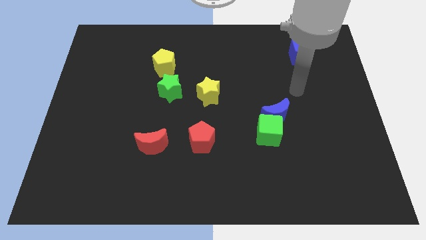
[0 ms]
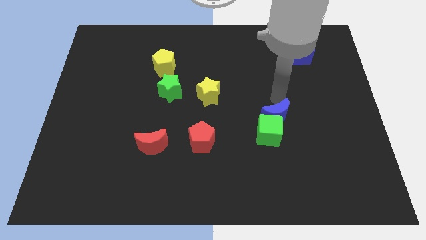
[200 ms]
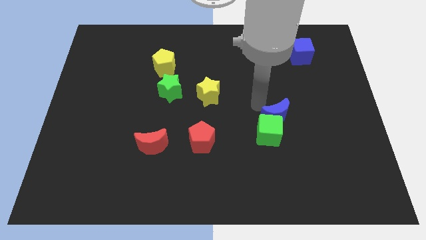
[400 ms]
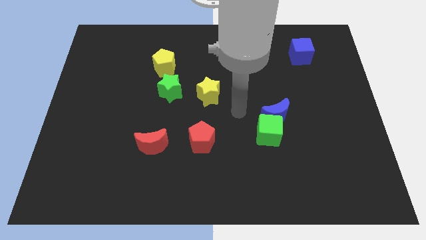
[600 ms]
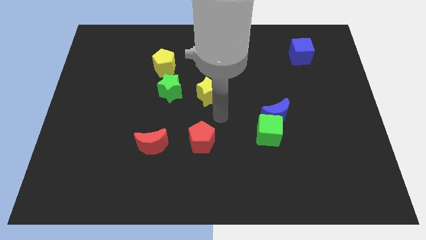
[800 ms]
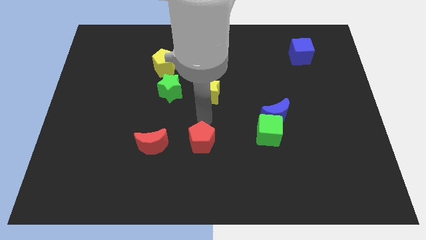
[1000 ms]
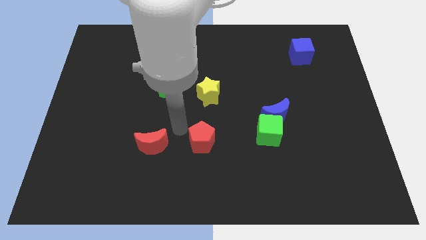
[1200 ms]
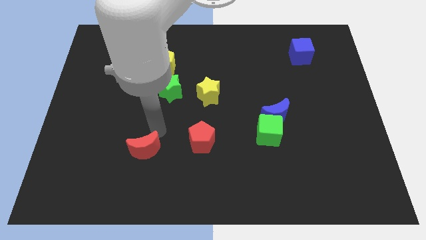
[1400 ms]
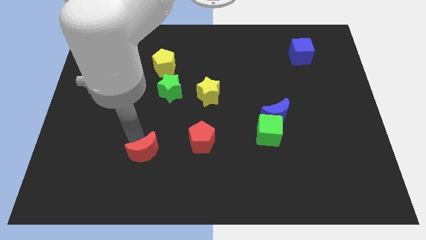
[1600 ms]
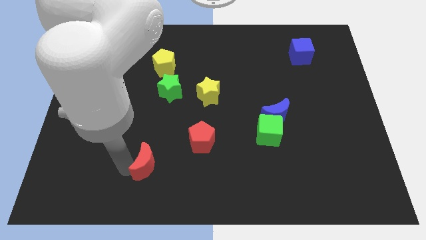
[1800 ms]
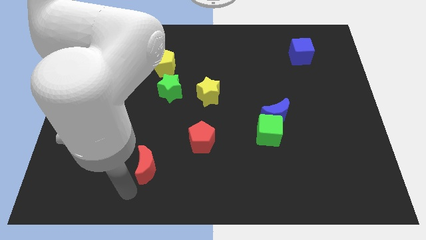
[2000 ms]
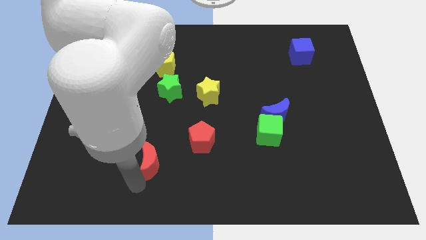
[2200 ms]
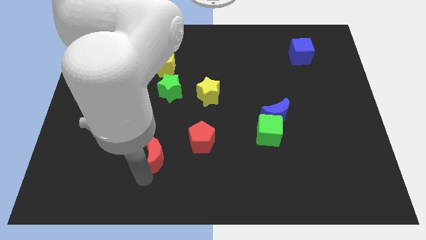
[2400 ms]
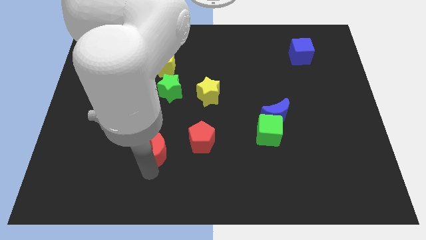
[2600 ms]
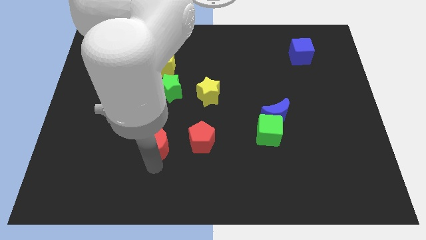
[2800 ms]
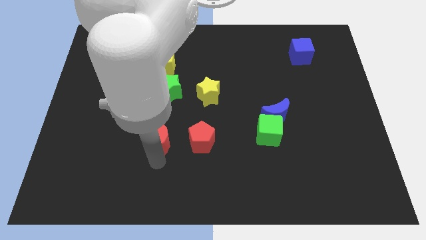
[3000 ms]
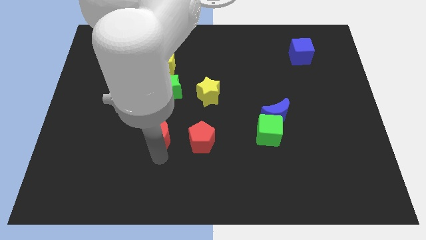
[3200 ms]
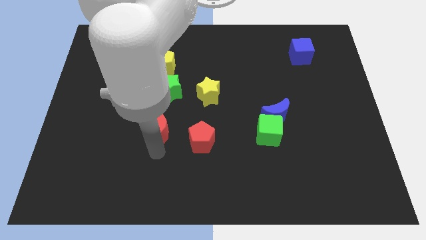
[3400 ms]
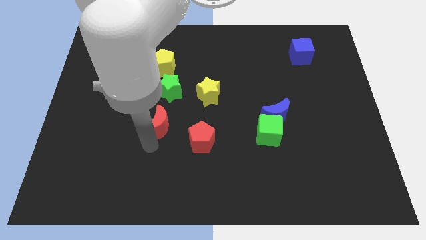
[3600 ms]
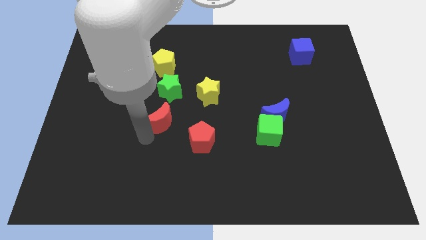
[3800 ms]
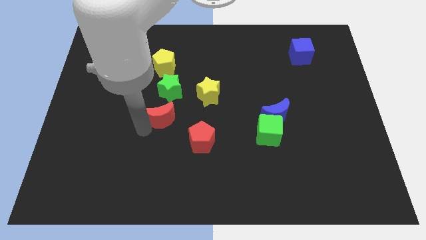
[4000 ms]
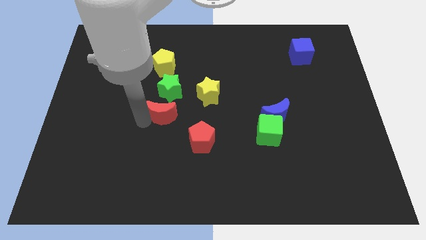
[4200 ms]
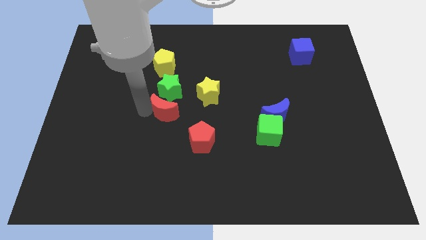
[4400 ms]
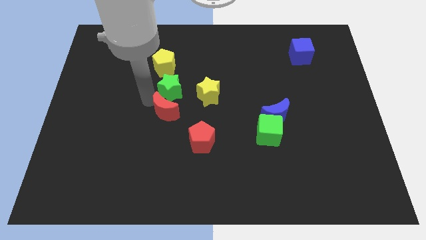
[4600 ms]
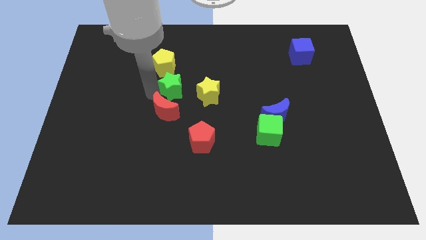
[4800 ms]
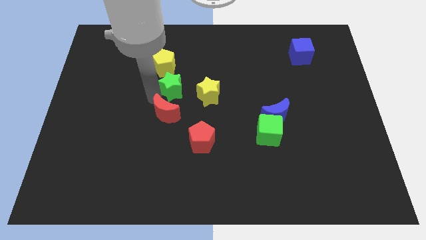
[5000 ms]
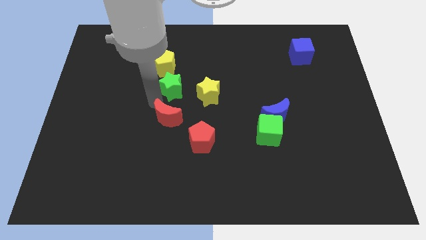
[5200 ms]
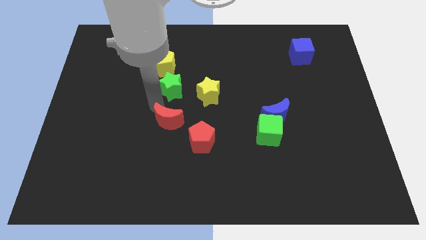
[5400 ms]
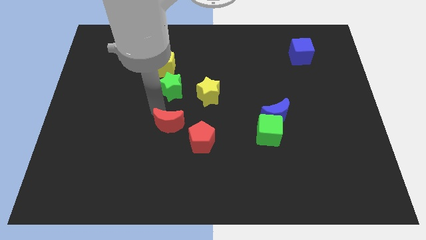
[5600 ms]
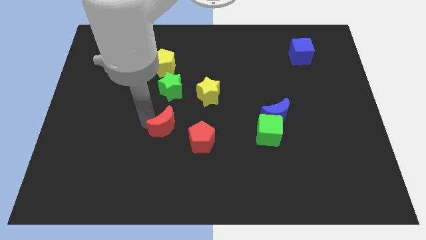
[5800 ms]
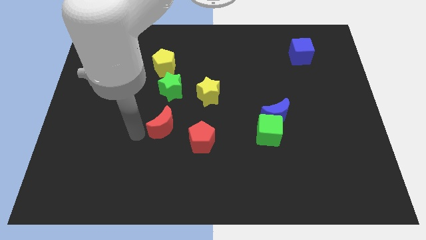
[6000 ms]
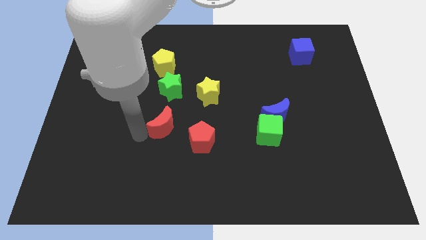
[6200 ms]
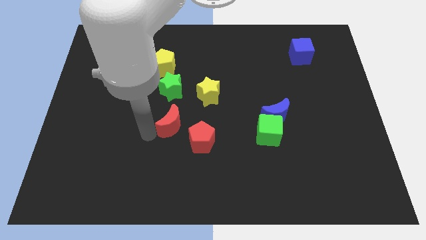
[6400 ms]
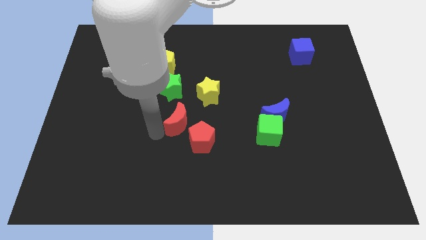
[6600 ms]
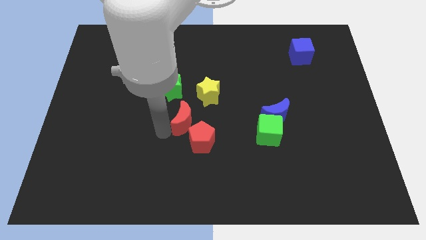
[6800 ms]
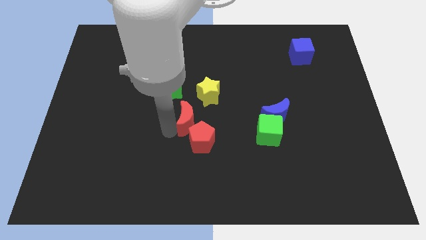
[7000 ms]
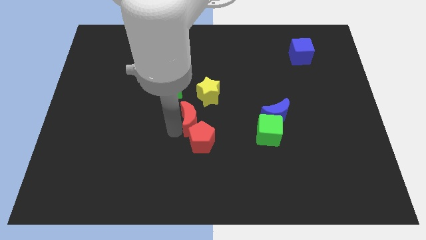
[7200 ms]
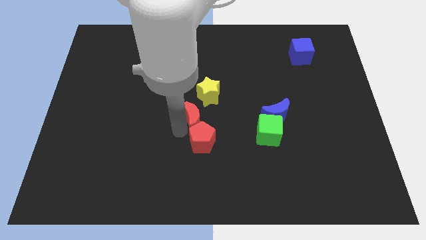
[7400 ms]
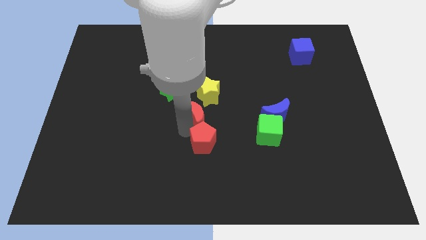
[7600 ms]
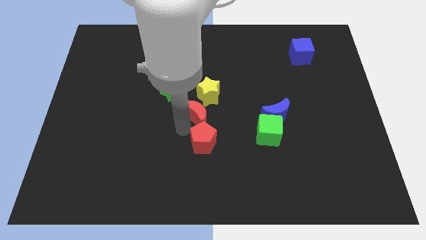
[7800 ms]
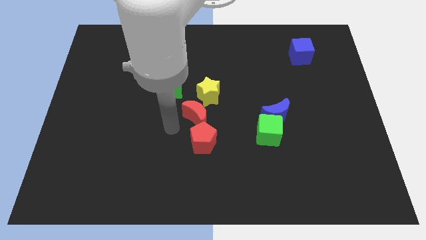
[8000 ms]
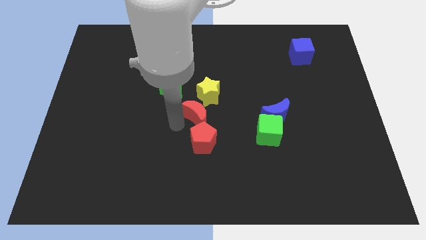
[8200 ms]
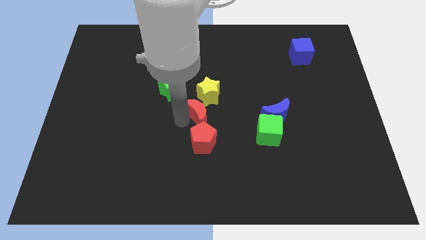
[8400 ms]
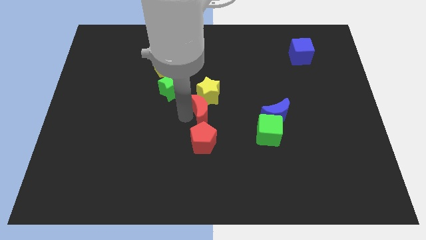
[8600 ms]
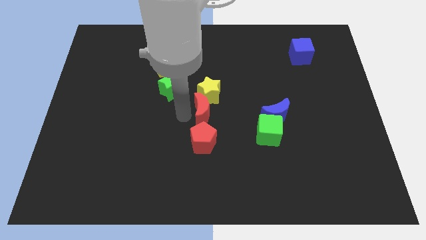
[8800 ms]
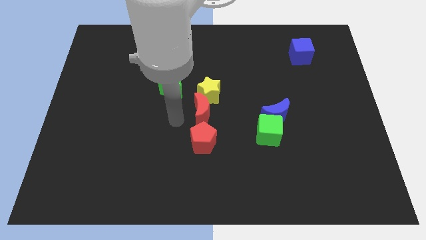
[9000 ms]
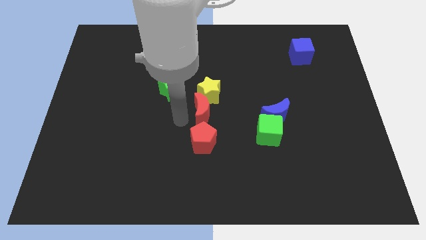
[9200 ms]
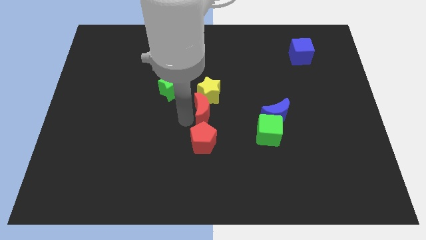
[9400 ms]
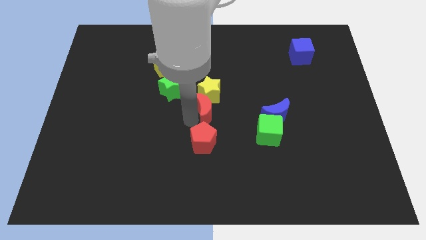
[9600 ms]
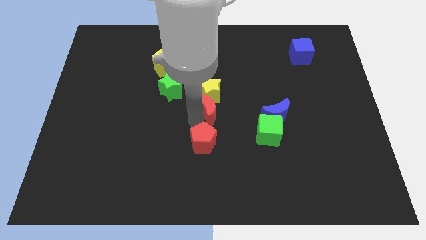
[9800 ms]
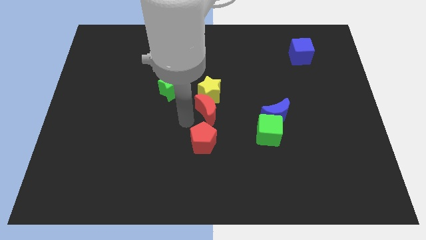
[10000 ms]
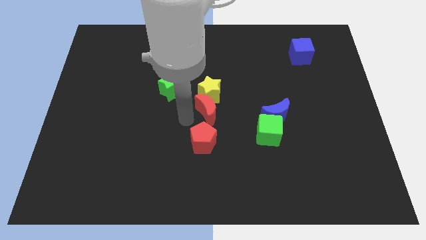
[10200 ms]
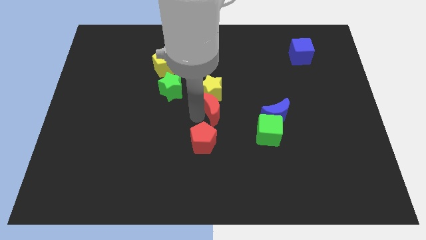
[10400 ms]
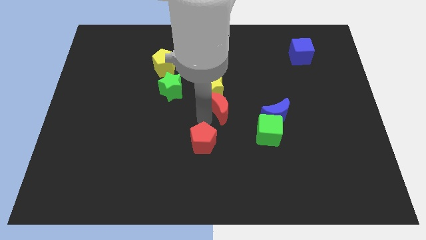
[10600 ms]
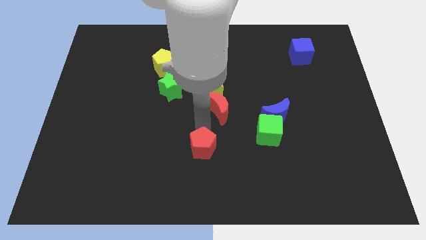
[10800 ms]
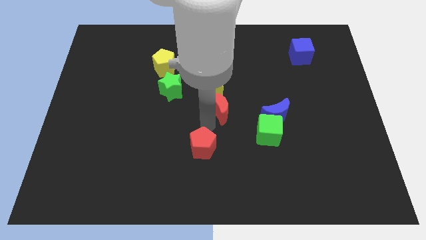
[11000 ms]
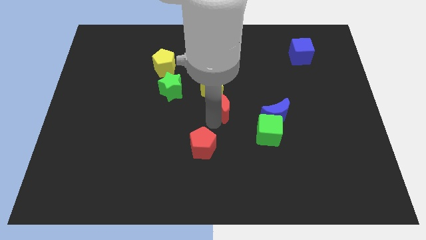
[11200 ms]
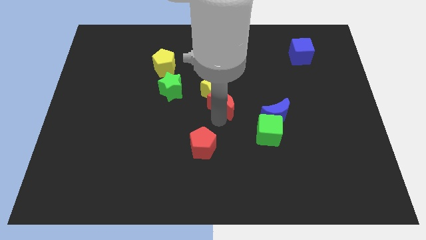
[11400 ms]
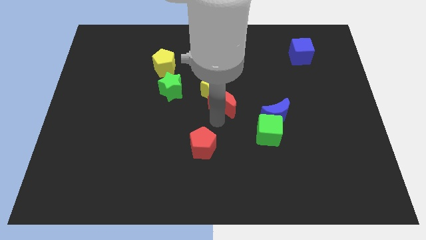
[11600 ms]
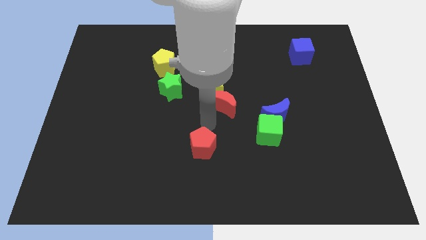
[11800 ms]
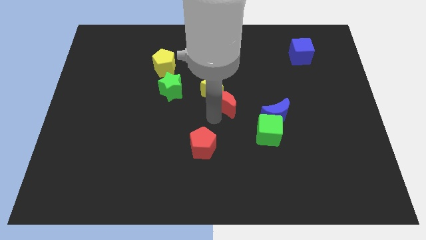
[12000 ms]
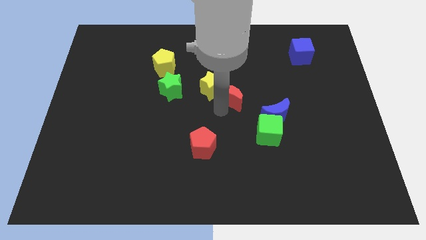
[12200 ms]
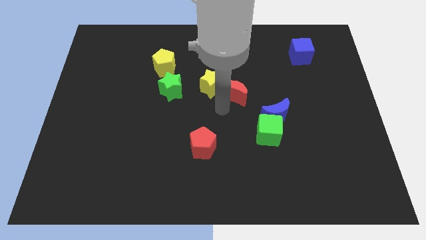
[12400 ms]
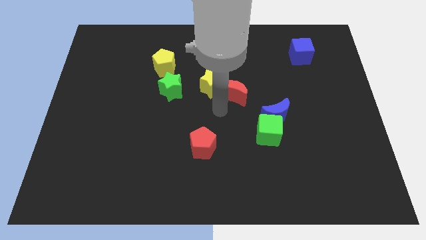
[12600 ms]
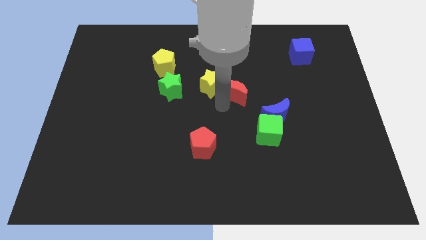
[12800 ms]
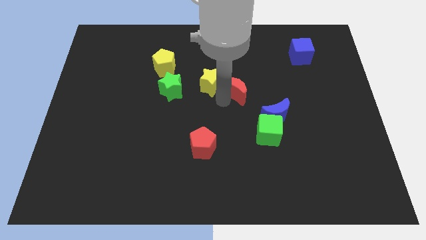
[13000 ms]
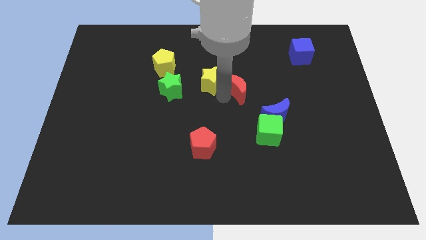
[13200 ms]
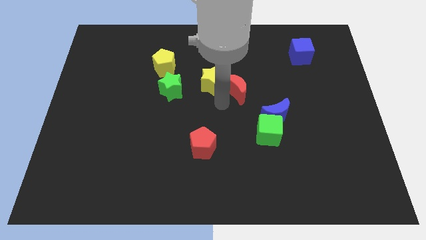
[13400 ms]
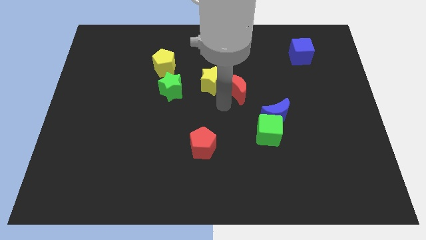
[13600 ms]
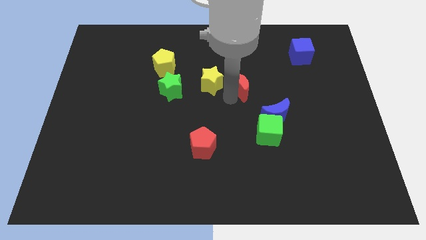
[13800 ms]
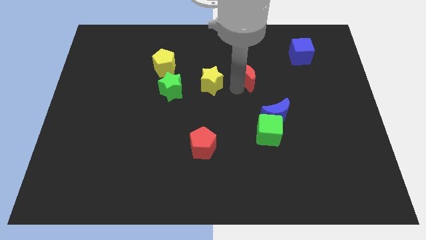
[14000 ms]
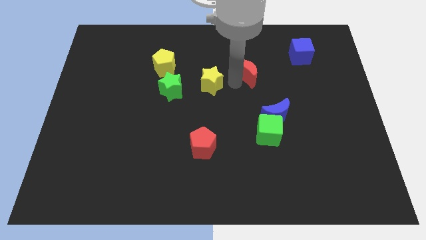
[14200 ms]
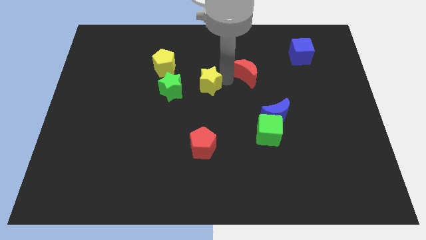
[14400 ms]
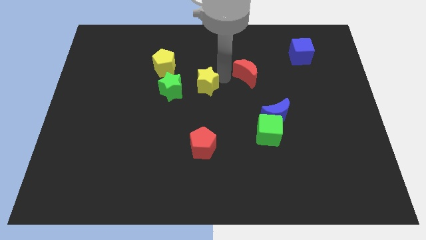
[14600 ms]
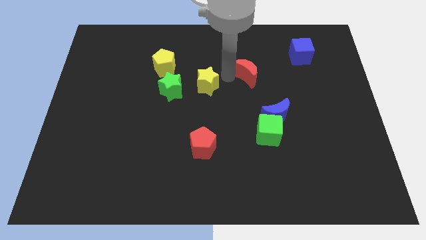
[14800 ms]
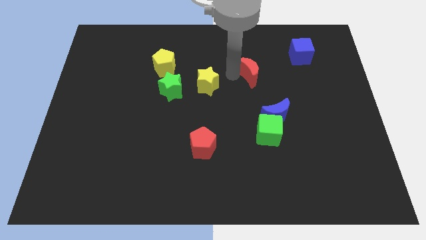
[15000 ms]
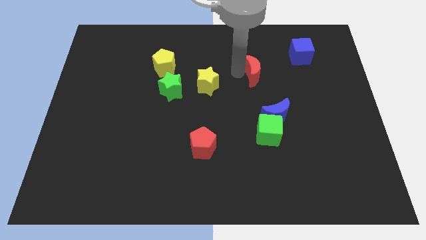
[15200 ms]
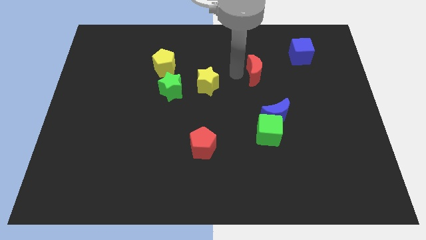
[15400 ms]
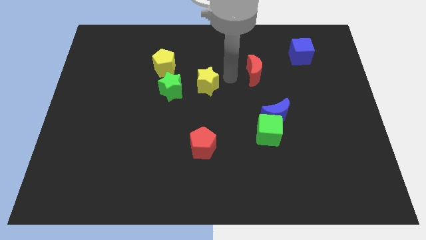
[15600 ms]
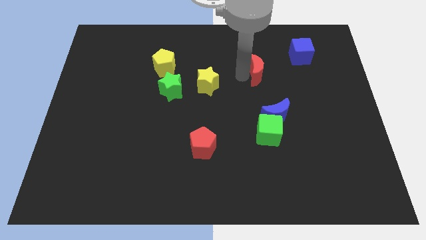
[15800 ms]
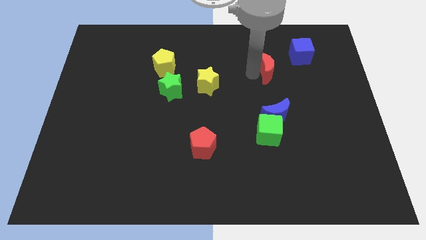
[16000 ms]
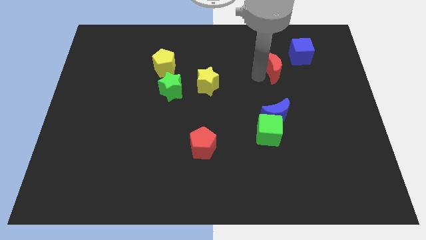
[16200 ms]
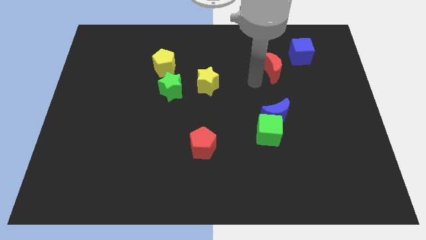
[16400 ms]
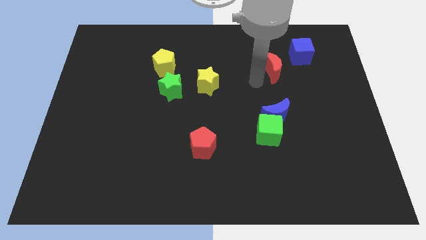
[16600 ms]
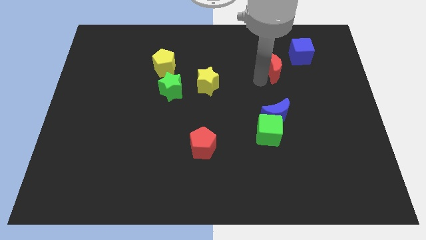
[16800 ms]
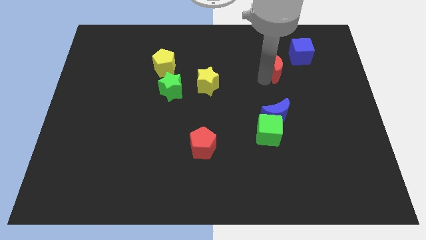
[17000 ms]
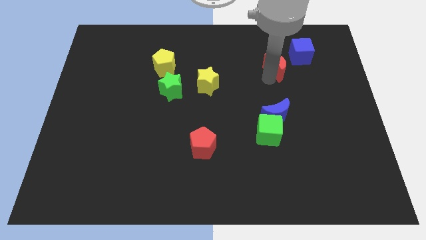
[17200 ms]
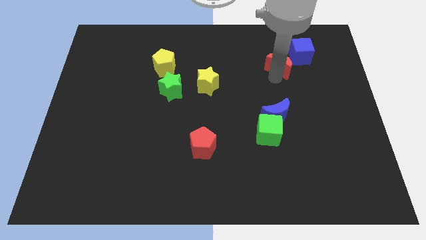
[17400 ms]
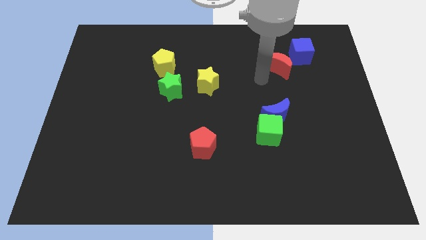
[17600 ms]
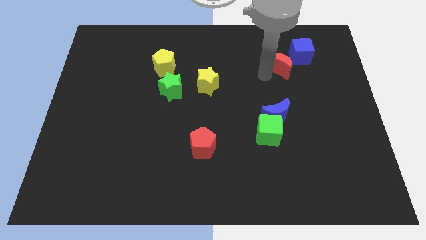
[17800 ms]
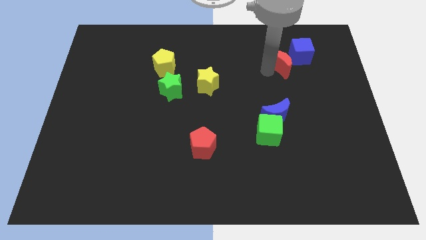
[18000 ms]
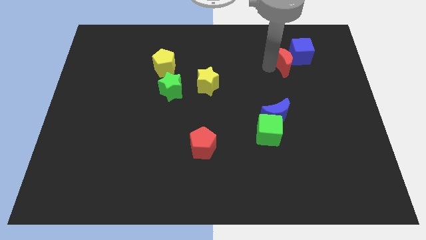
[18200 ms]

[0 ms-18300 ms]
slide the red moon to the blue cube
